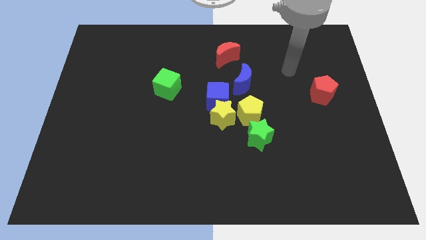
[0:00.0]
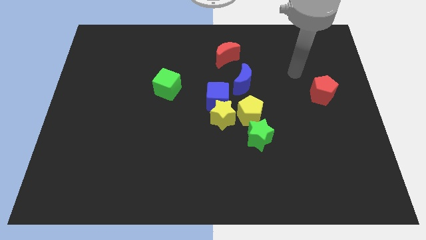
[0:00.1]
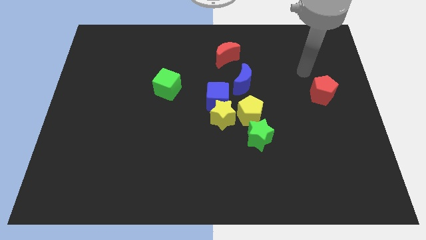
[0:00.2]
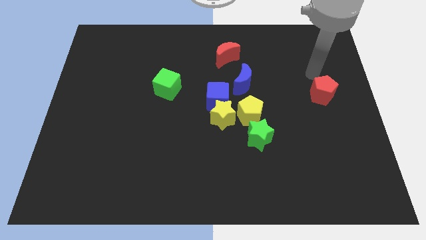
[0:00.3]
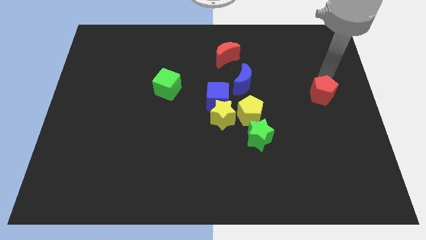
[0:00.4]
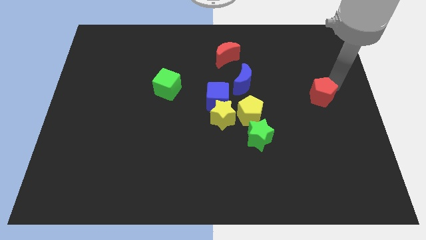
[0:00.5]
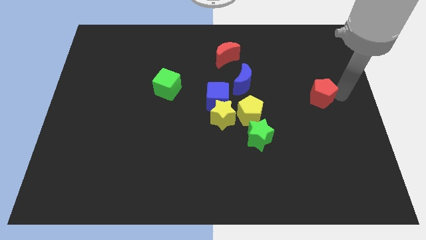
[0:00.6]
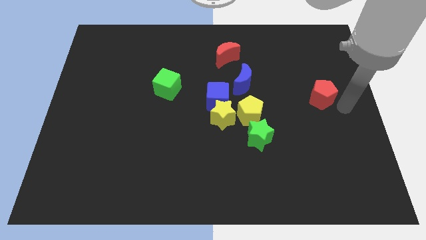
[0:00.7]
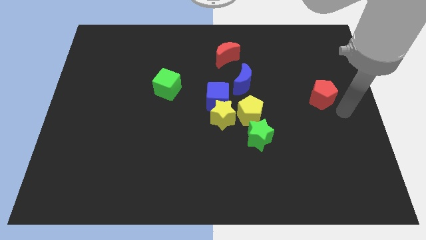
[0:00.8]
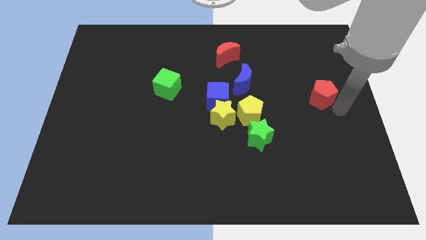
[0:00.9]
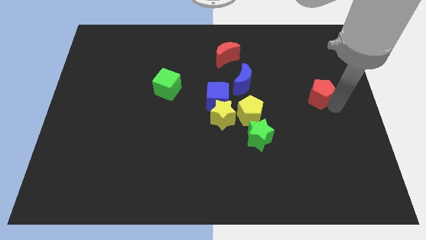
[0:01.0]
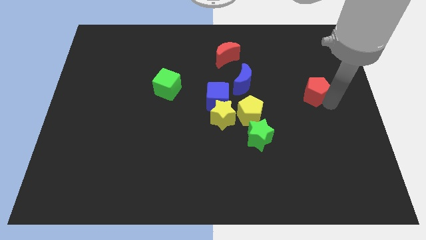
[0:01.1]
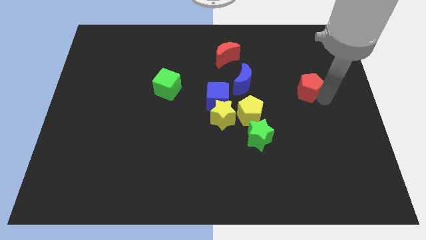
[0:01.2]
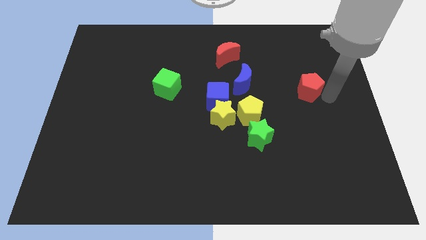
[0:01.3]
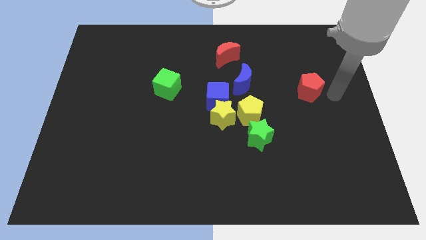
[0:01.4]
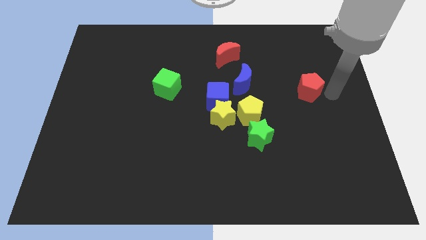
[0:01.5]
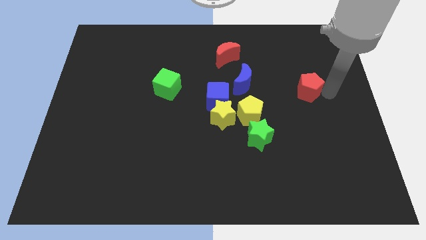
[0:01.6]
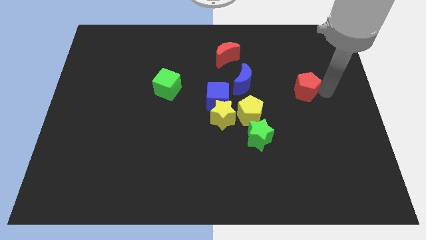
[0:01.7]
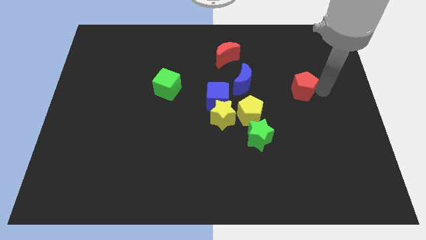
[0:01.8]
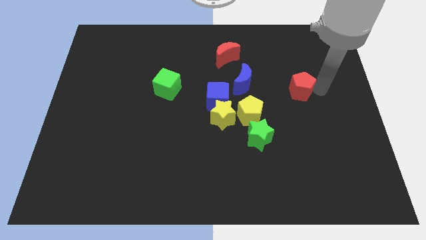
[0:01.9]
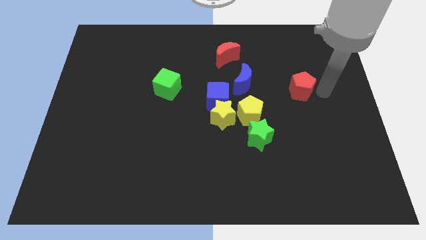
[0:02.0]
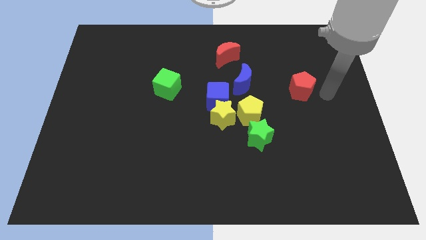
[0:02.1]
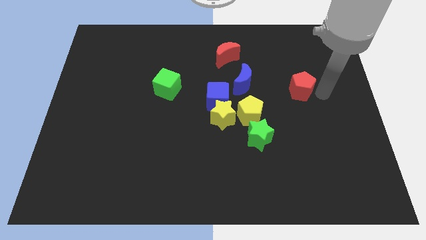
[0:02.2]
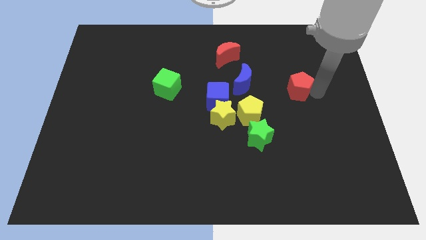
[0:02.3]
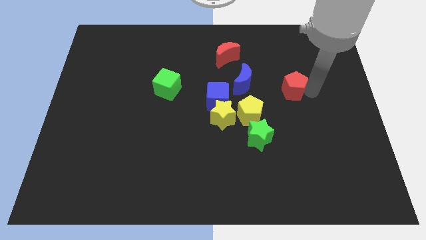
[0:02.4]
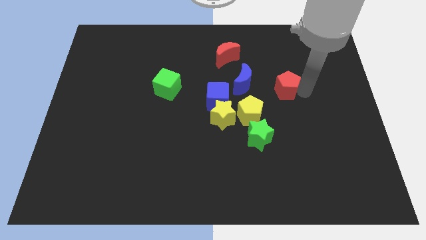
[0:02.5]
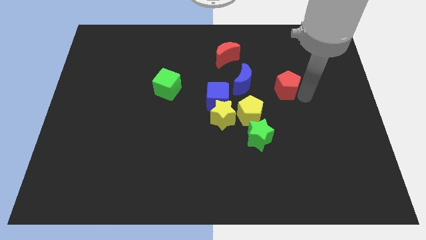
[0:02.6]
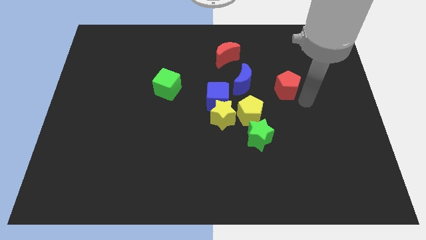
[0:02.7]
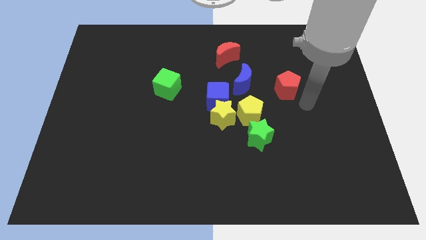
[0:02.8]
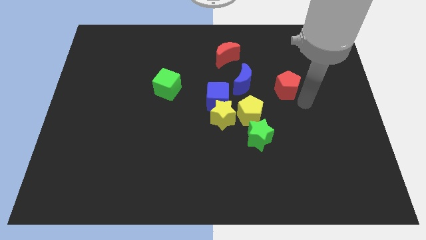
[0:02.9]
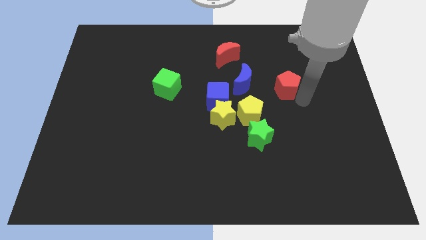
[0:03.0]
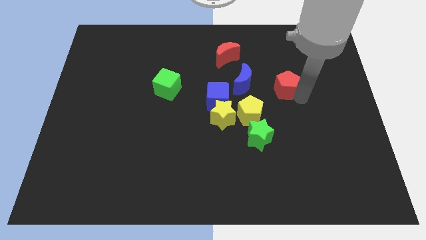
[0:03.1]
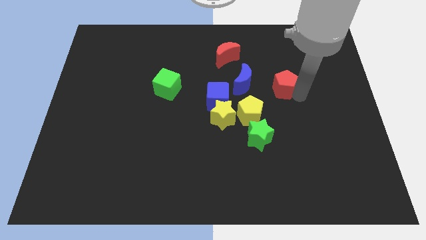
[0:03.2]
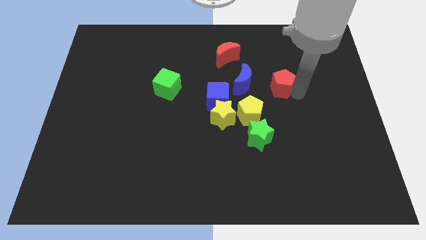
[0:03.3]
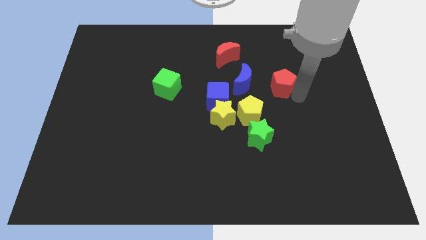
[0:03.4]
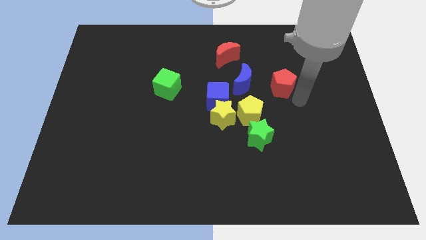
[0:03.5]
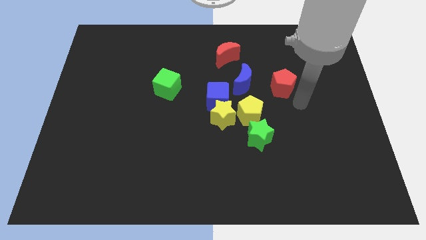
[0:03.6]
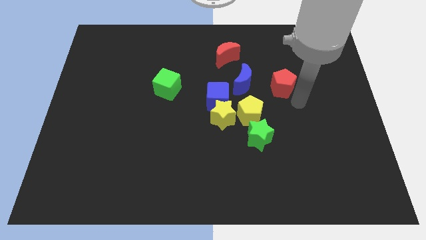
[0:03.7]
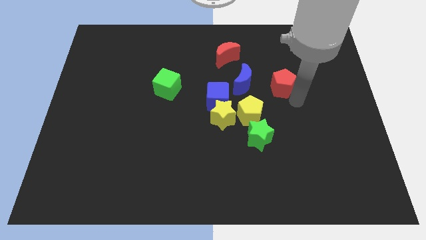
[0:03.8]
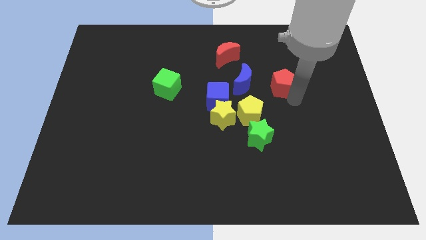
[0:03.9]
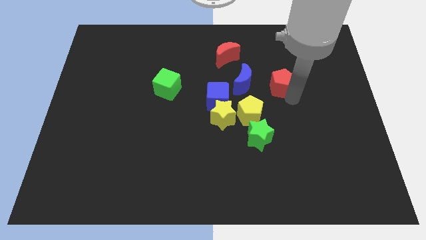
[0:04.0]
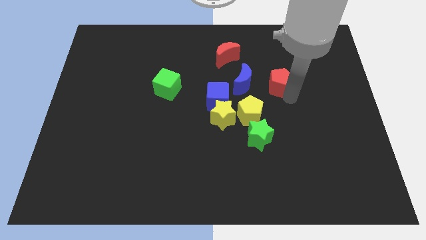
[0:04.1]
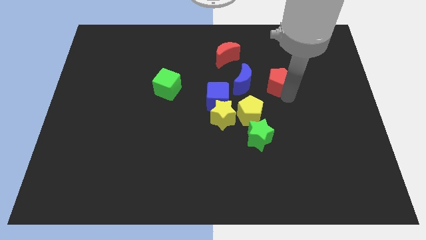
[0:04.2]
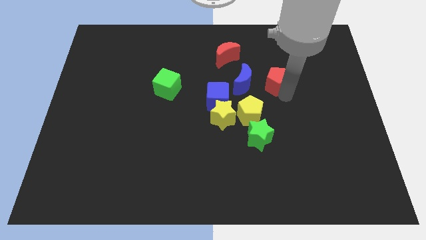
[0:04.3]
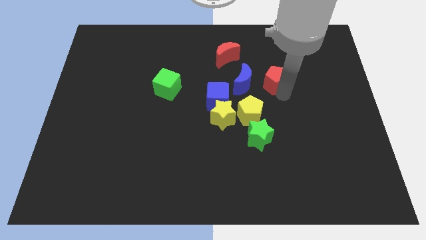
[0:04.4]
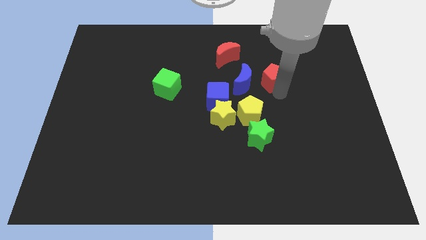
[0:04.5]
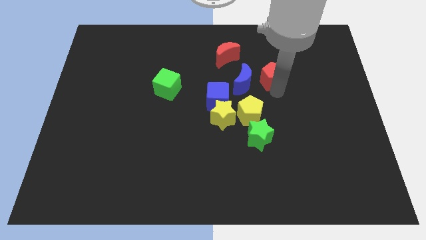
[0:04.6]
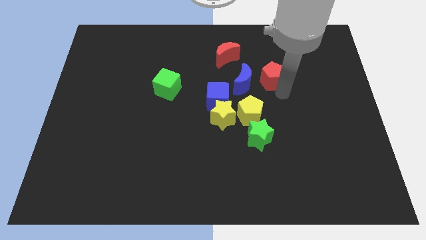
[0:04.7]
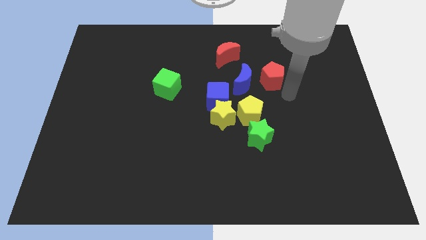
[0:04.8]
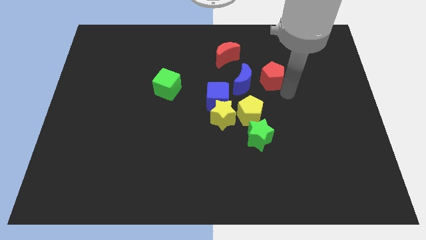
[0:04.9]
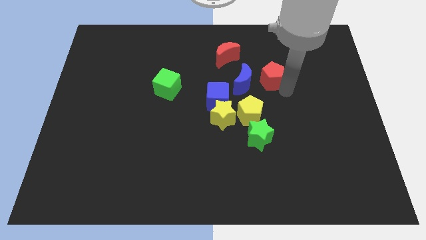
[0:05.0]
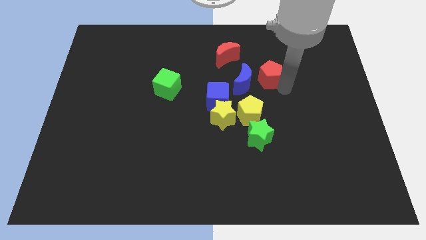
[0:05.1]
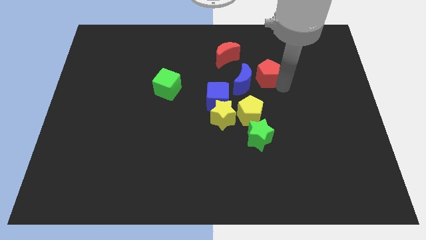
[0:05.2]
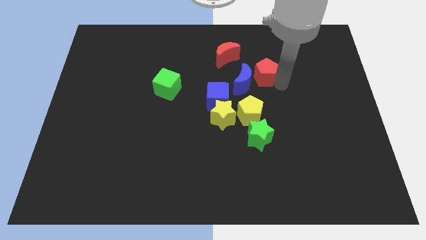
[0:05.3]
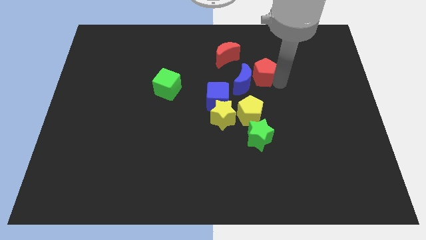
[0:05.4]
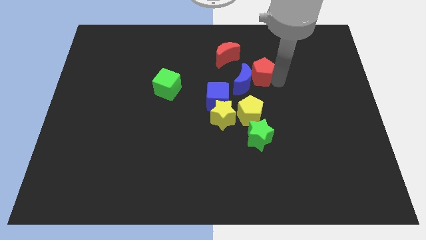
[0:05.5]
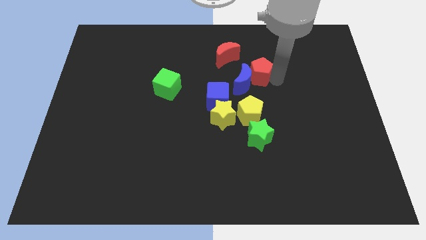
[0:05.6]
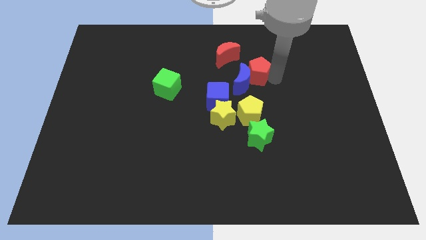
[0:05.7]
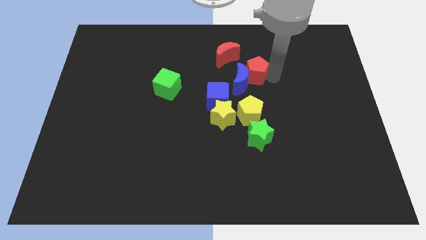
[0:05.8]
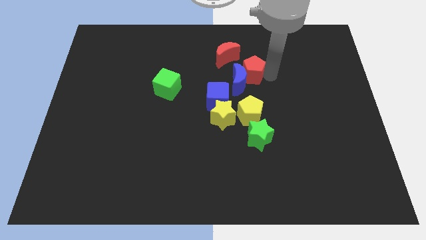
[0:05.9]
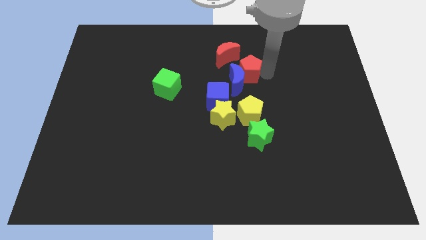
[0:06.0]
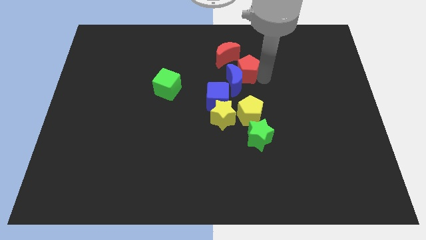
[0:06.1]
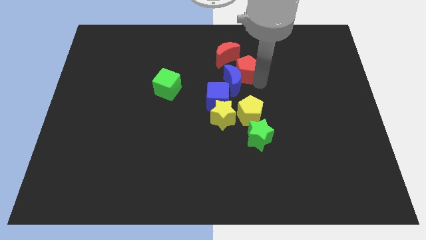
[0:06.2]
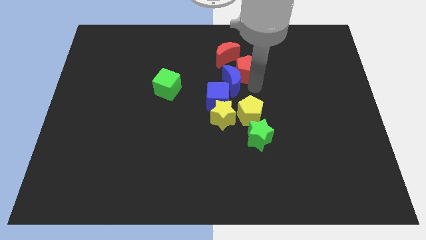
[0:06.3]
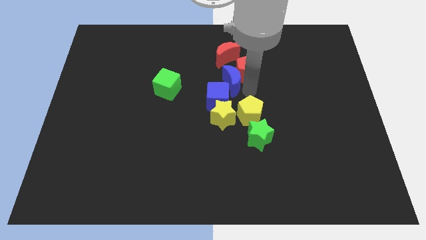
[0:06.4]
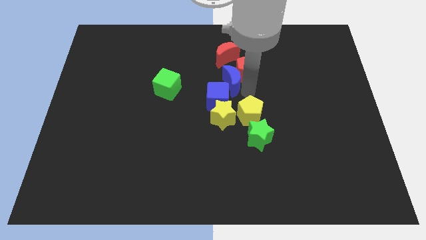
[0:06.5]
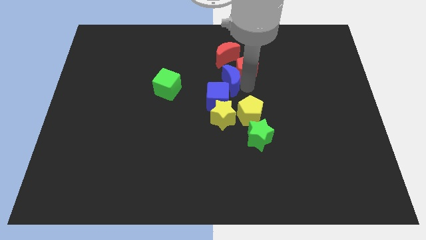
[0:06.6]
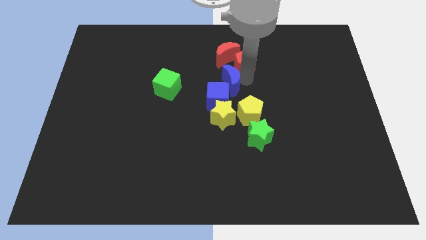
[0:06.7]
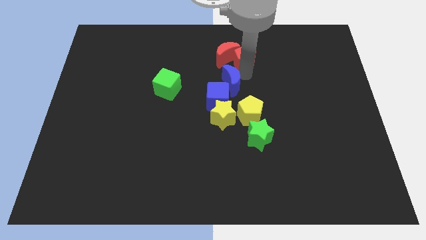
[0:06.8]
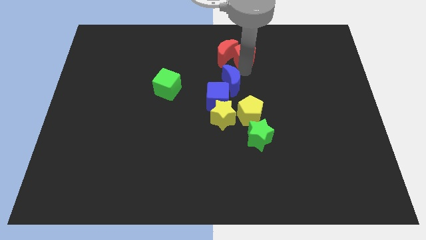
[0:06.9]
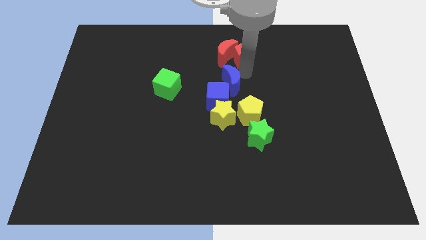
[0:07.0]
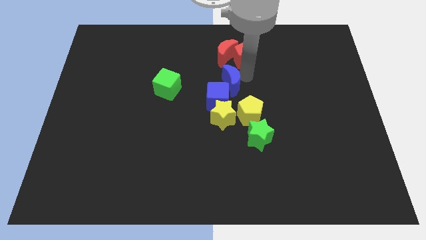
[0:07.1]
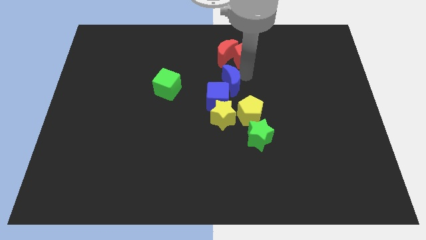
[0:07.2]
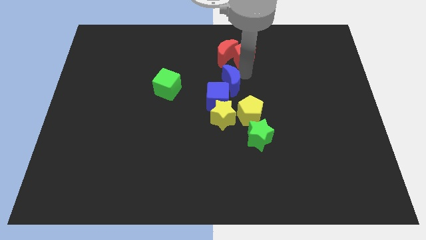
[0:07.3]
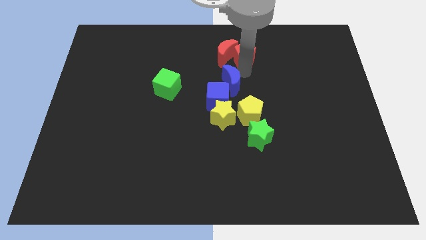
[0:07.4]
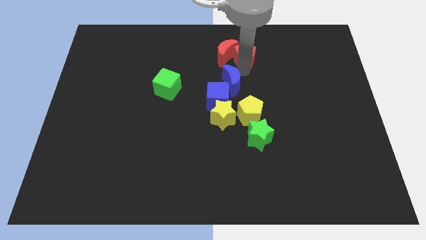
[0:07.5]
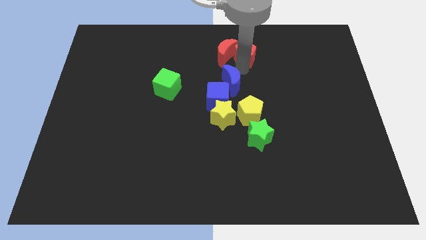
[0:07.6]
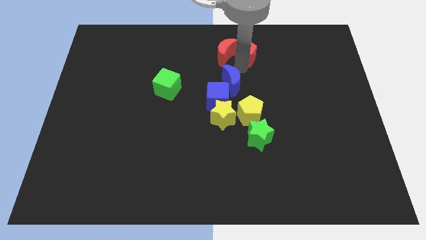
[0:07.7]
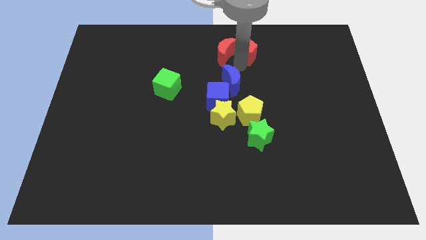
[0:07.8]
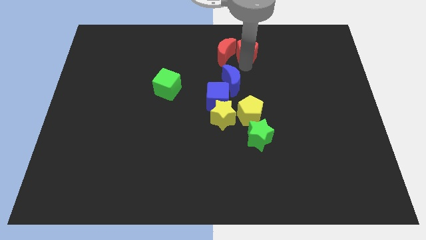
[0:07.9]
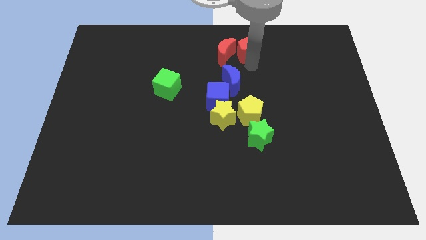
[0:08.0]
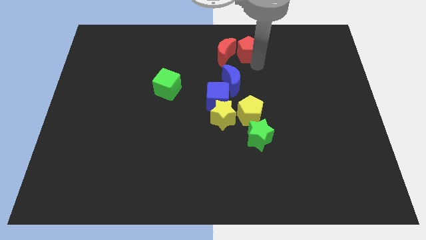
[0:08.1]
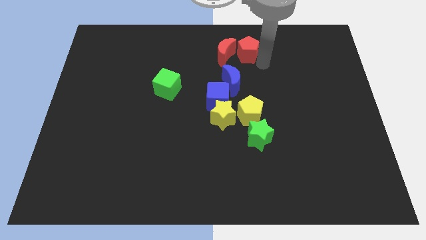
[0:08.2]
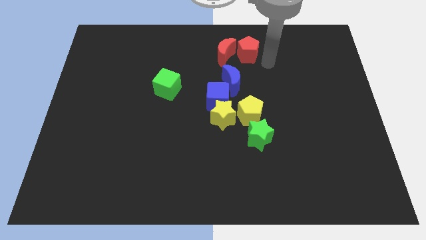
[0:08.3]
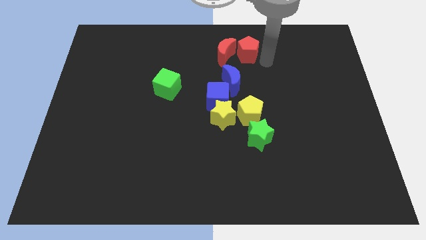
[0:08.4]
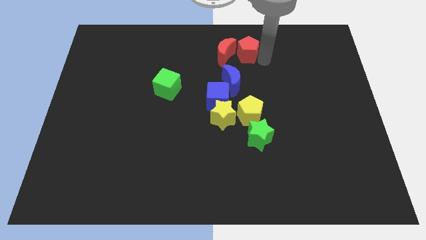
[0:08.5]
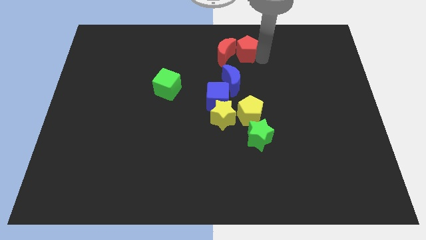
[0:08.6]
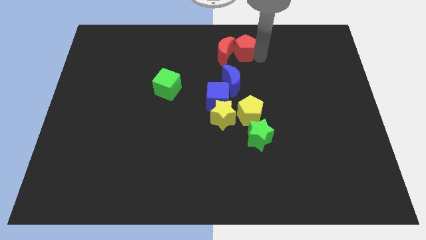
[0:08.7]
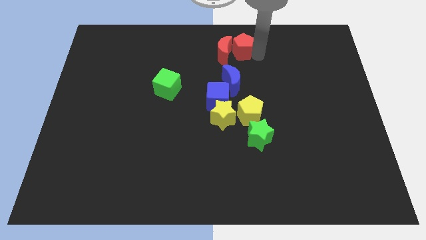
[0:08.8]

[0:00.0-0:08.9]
put the red pentagon to the towards your base
